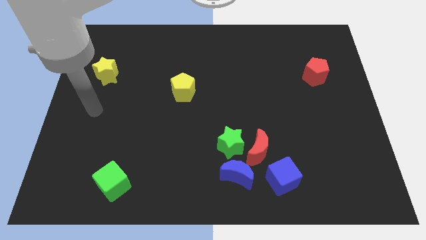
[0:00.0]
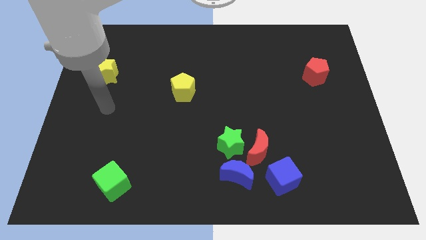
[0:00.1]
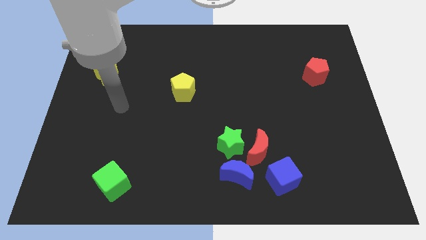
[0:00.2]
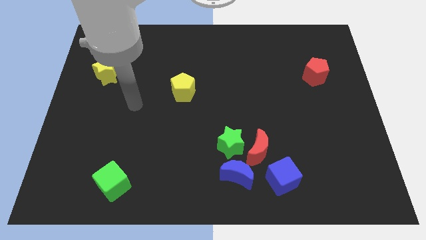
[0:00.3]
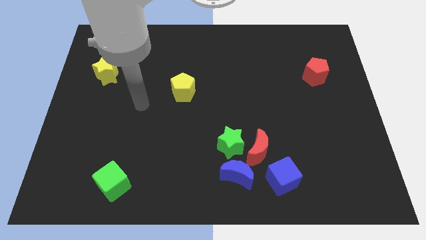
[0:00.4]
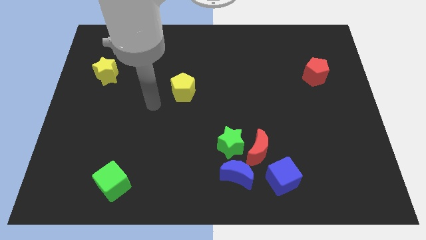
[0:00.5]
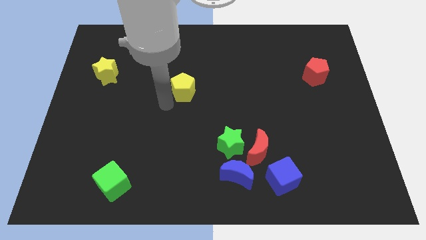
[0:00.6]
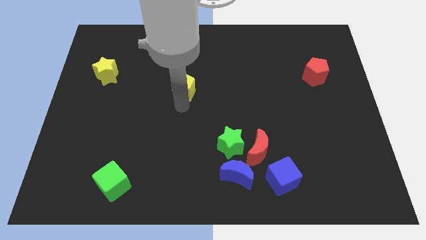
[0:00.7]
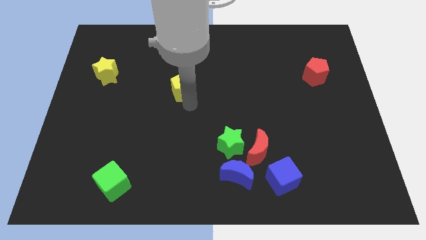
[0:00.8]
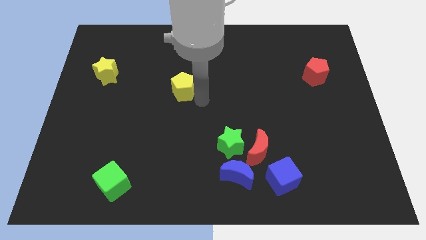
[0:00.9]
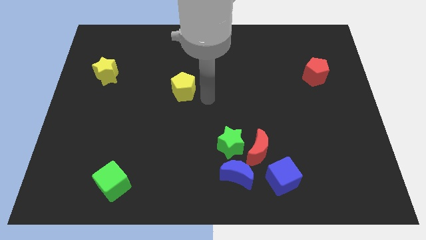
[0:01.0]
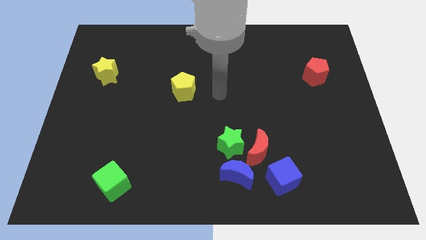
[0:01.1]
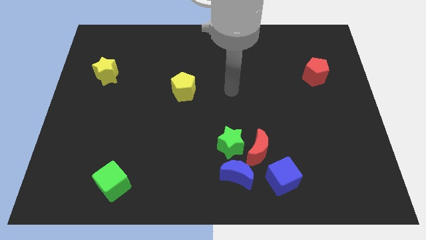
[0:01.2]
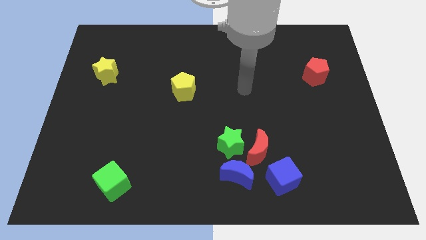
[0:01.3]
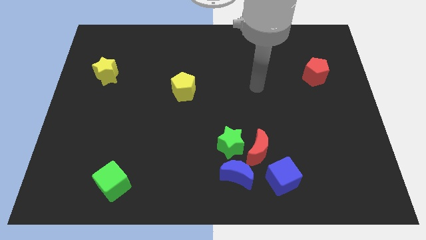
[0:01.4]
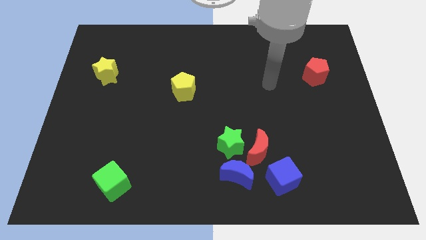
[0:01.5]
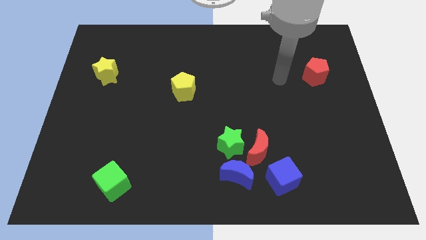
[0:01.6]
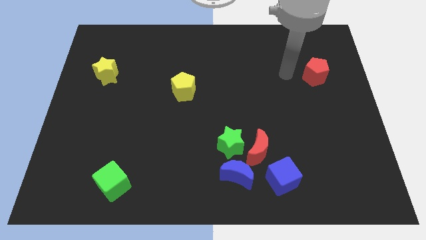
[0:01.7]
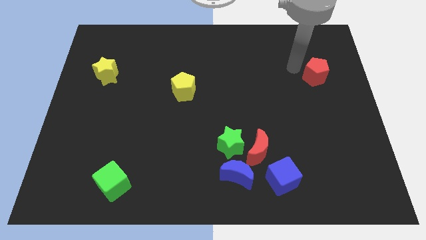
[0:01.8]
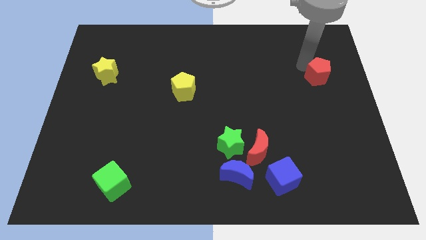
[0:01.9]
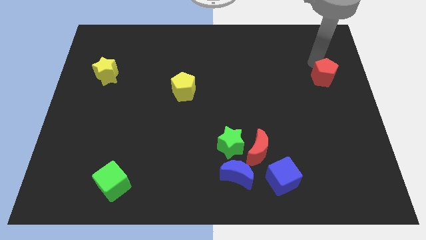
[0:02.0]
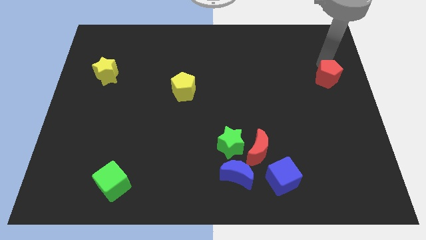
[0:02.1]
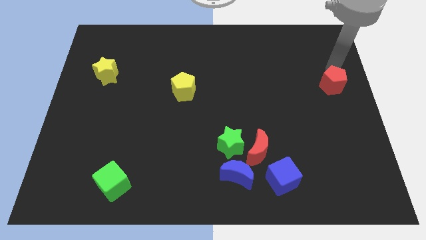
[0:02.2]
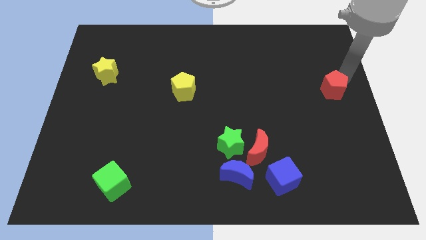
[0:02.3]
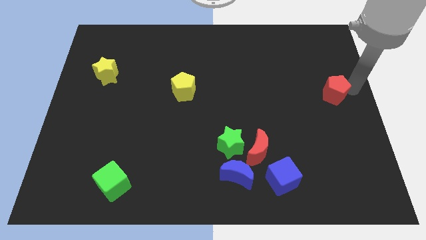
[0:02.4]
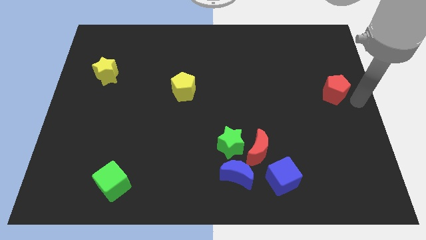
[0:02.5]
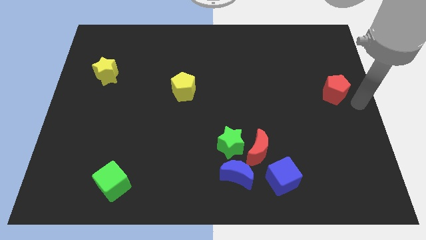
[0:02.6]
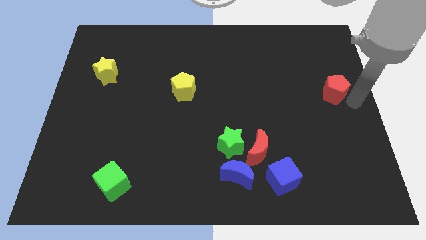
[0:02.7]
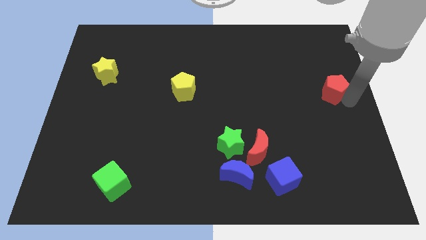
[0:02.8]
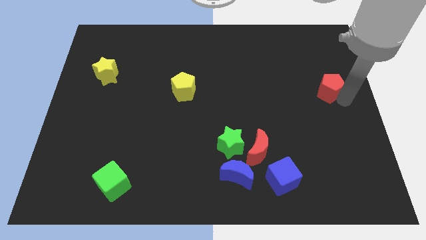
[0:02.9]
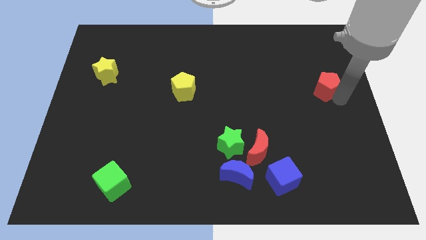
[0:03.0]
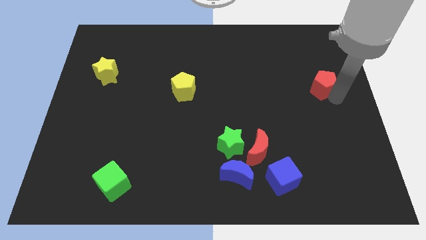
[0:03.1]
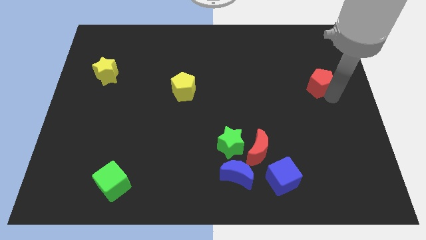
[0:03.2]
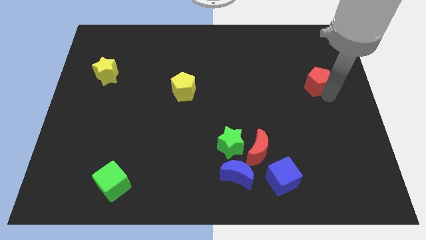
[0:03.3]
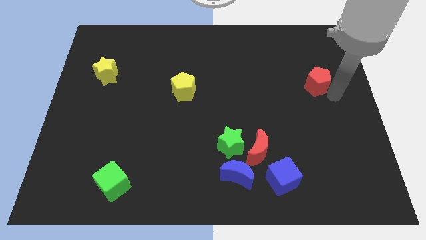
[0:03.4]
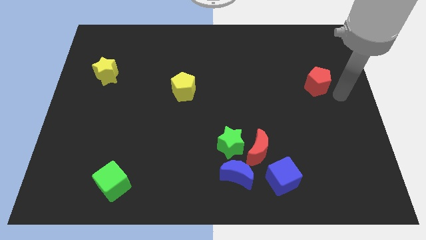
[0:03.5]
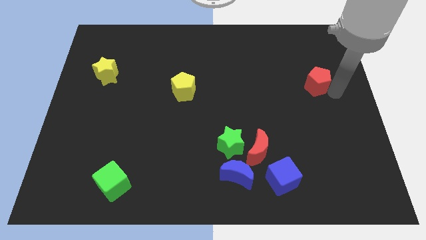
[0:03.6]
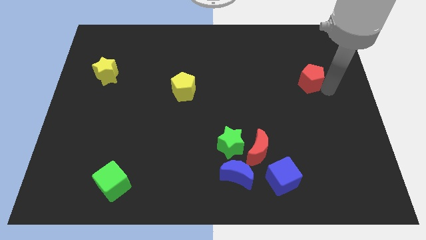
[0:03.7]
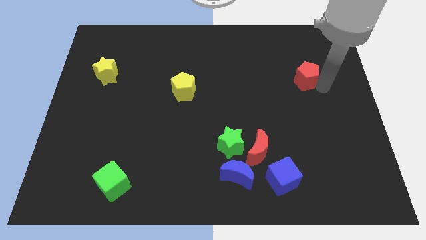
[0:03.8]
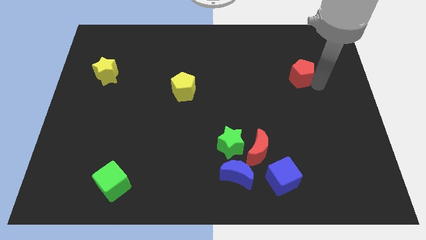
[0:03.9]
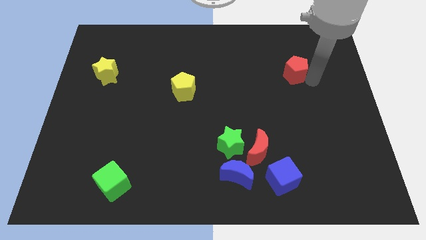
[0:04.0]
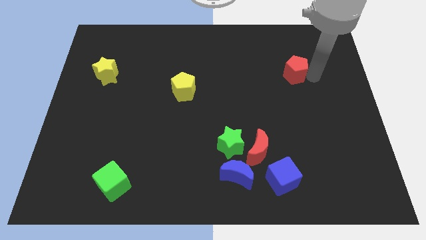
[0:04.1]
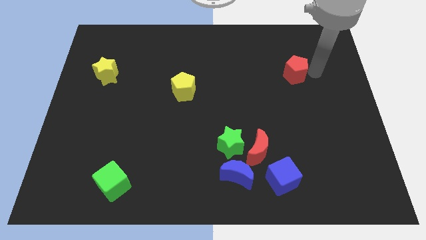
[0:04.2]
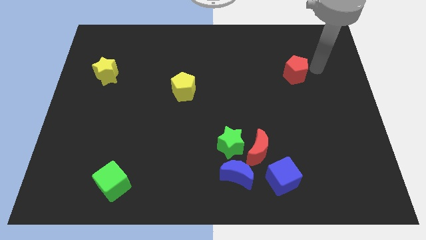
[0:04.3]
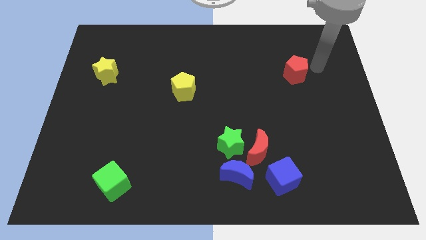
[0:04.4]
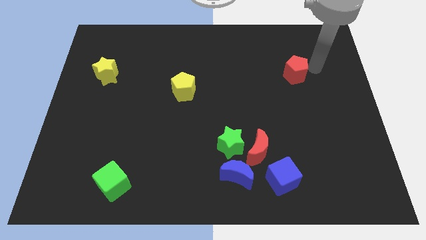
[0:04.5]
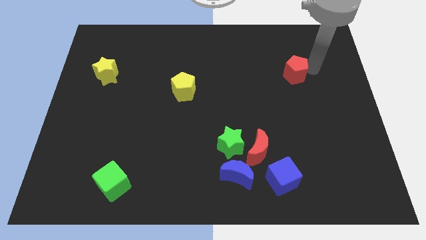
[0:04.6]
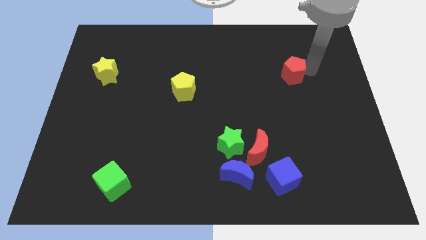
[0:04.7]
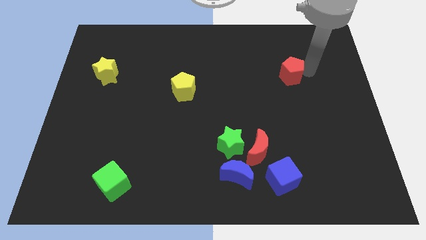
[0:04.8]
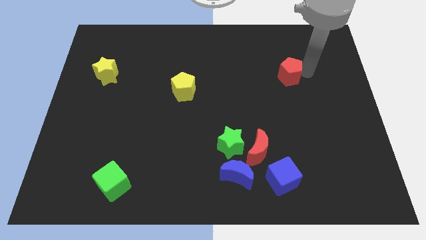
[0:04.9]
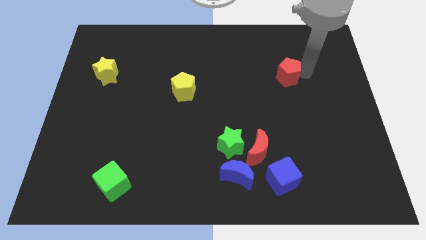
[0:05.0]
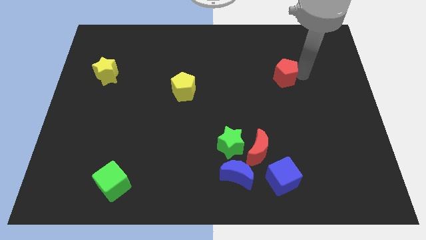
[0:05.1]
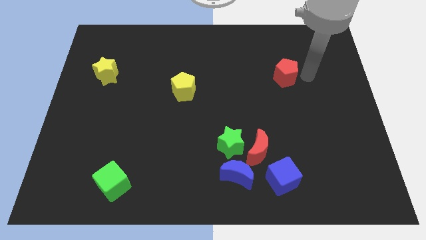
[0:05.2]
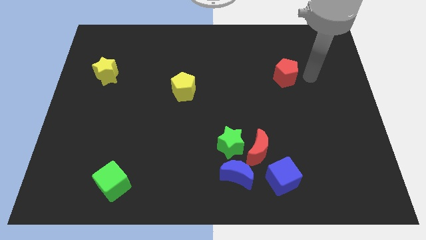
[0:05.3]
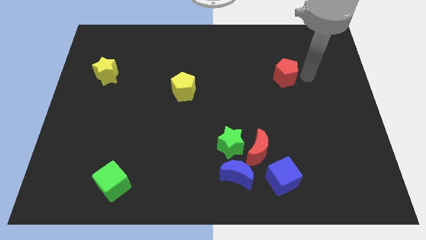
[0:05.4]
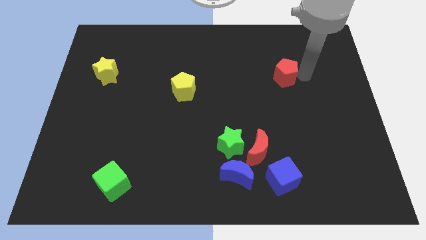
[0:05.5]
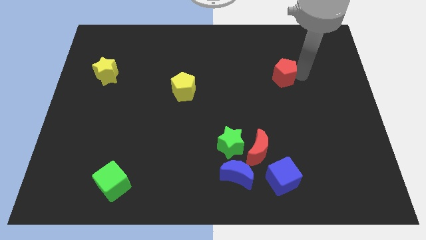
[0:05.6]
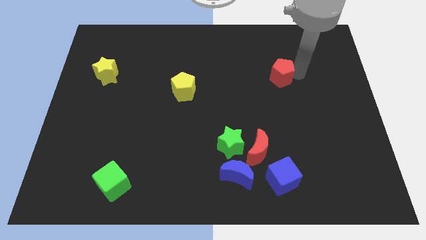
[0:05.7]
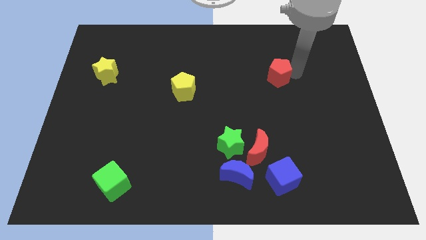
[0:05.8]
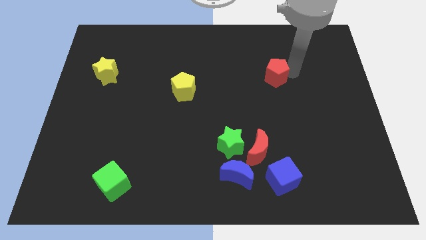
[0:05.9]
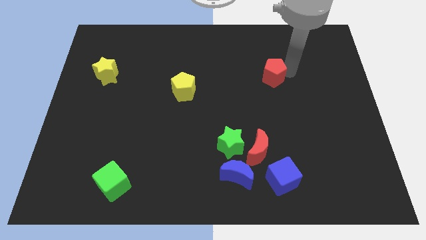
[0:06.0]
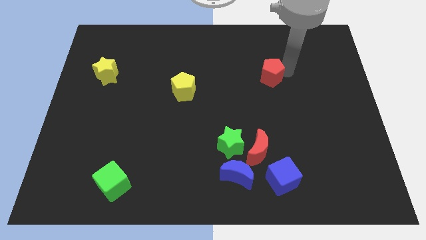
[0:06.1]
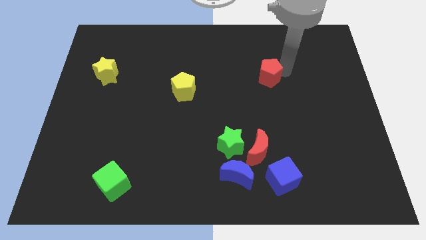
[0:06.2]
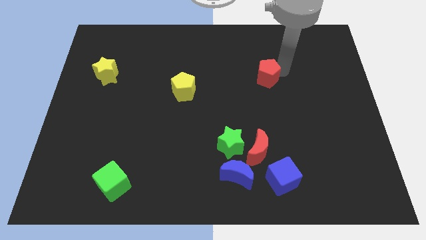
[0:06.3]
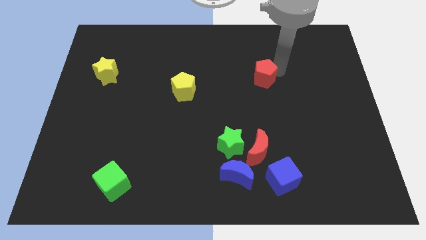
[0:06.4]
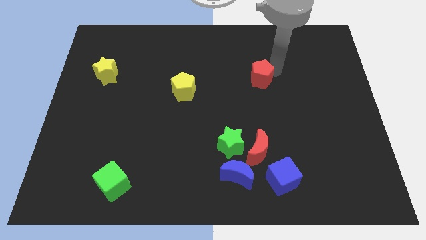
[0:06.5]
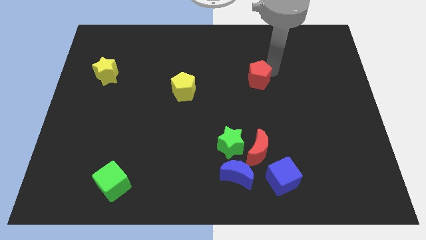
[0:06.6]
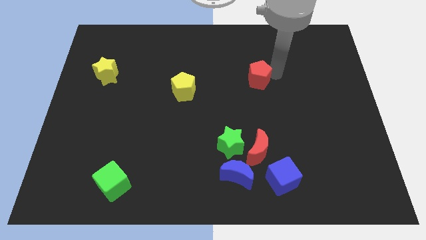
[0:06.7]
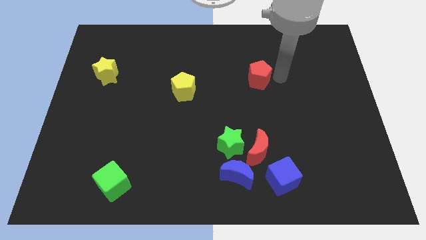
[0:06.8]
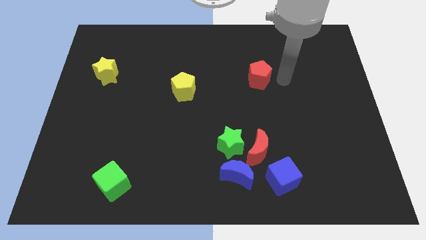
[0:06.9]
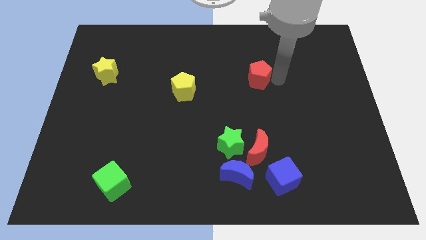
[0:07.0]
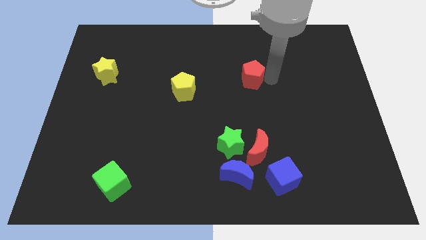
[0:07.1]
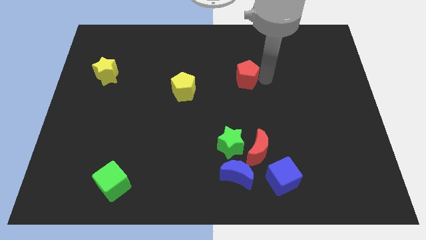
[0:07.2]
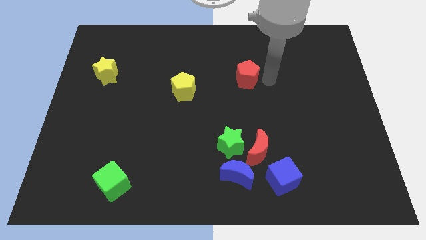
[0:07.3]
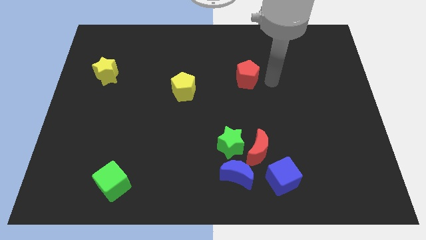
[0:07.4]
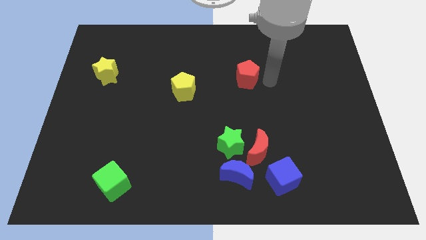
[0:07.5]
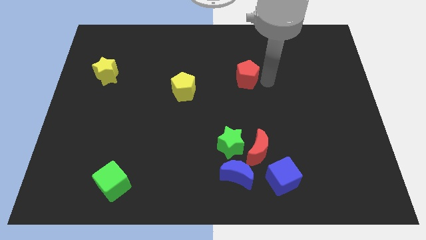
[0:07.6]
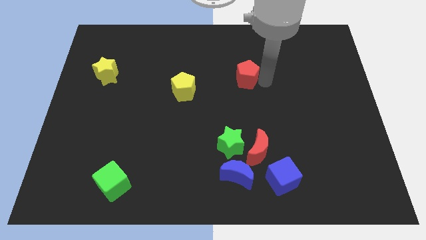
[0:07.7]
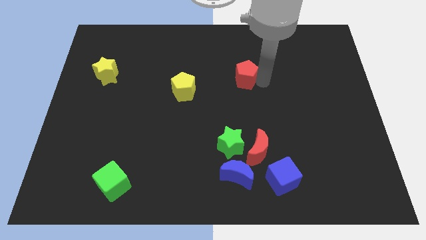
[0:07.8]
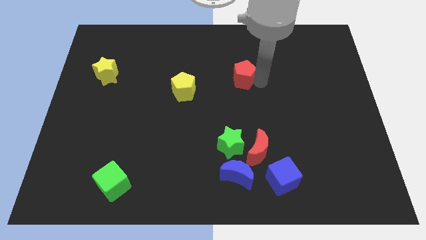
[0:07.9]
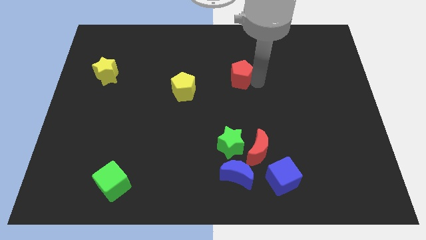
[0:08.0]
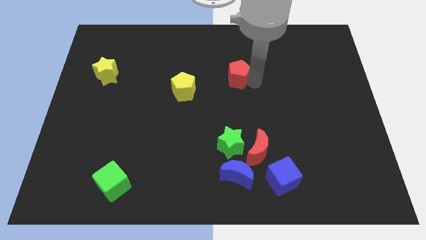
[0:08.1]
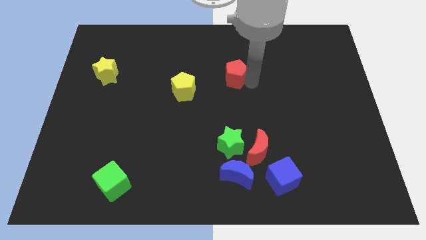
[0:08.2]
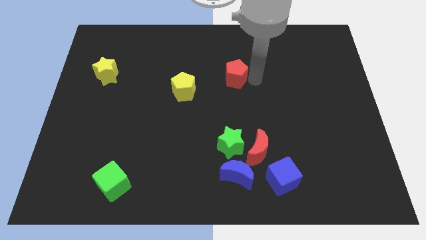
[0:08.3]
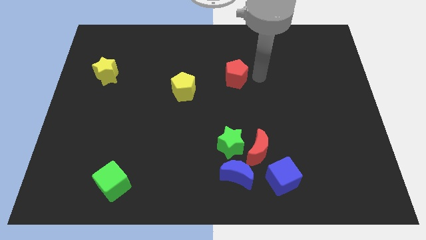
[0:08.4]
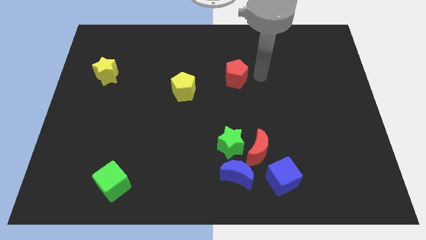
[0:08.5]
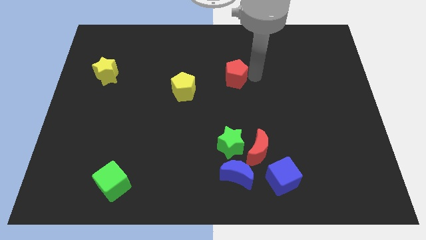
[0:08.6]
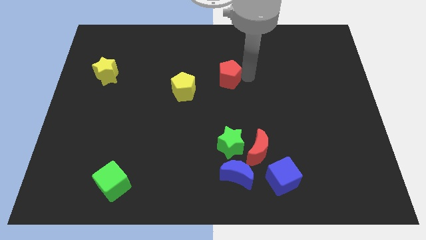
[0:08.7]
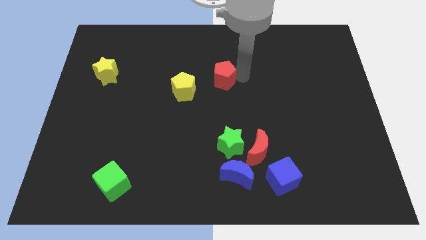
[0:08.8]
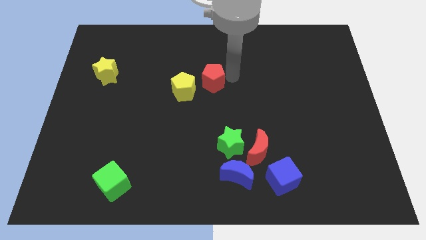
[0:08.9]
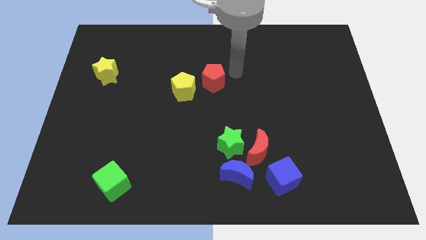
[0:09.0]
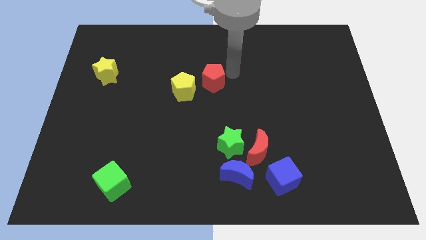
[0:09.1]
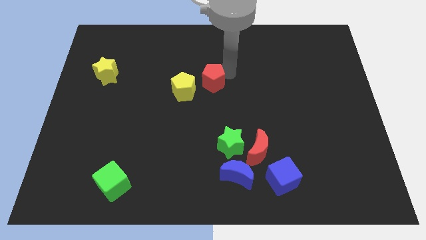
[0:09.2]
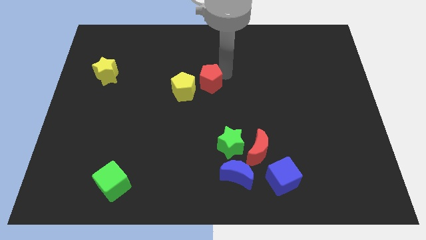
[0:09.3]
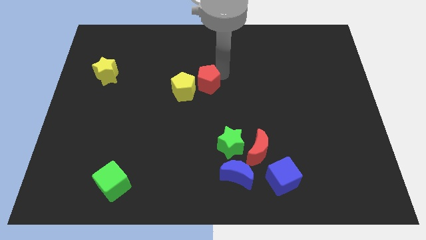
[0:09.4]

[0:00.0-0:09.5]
put the red pentagon next to the yellow pentagon
